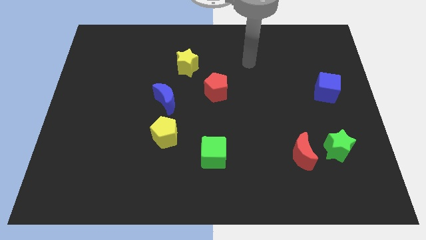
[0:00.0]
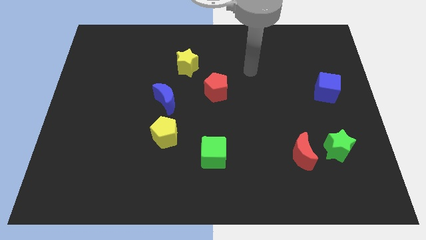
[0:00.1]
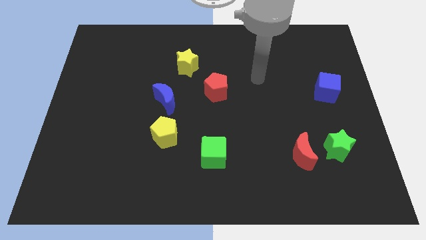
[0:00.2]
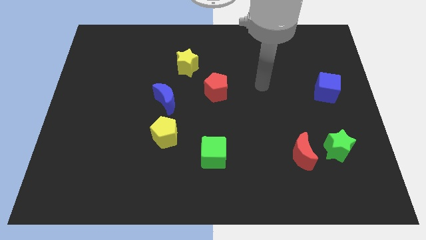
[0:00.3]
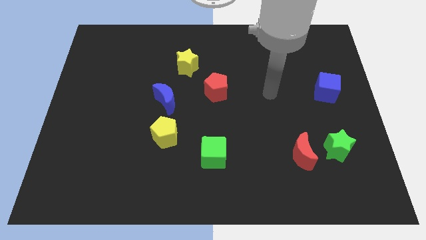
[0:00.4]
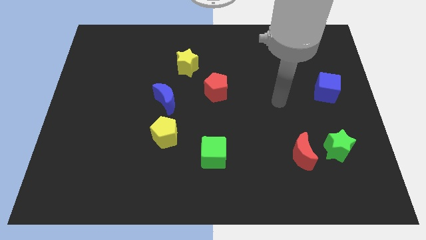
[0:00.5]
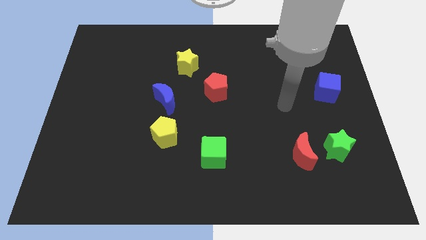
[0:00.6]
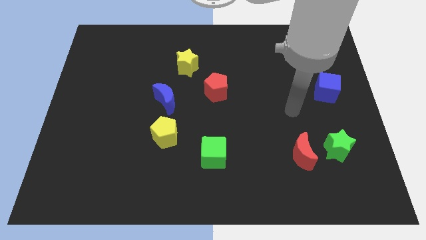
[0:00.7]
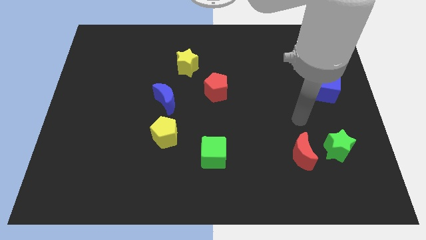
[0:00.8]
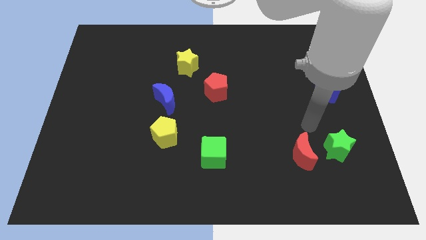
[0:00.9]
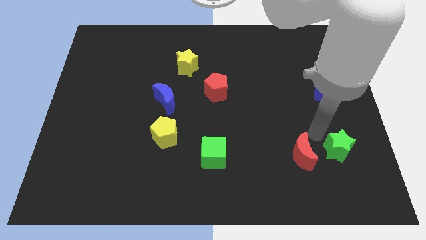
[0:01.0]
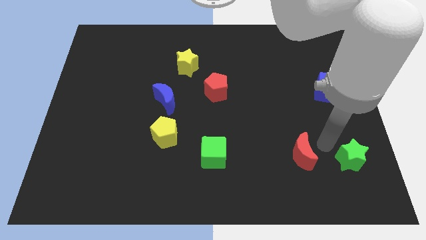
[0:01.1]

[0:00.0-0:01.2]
pull the red moon apart from the green star

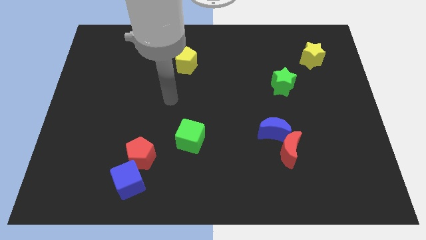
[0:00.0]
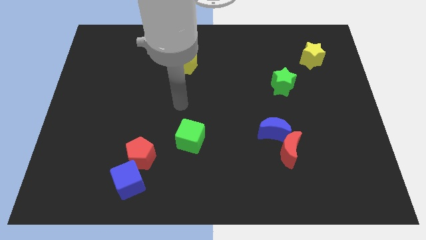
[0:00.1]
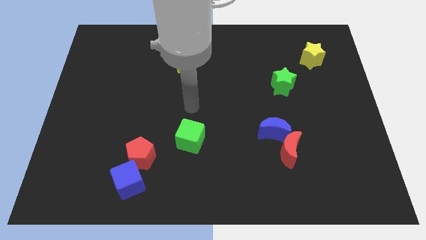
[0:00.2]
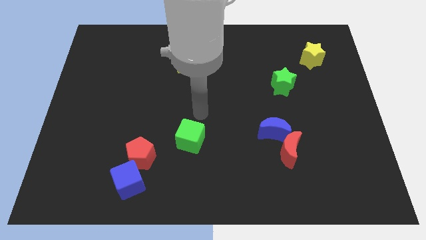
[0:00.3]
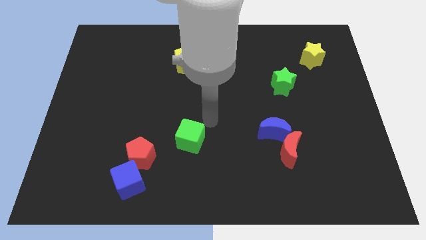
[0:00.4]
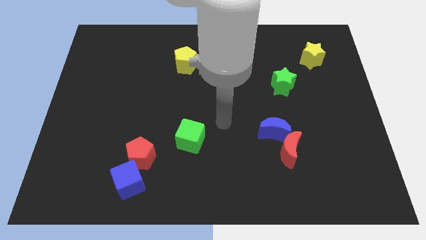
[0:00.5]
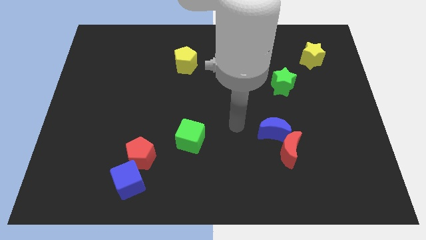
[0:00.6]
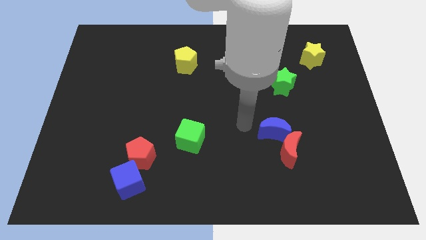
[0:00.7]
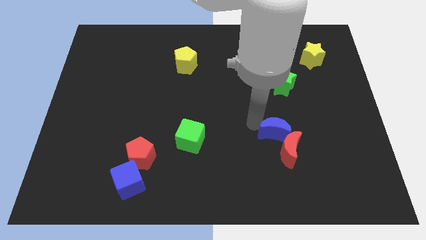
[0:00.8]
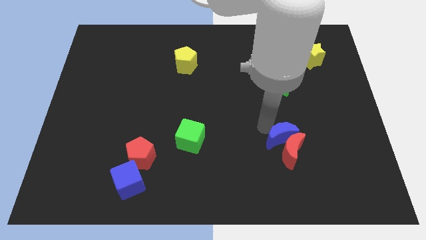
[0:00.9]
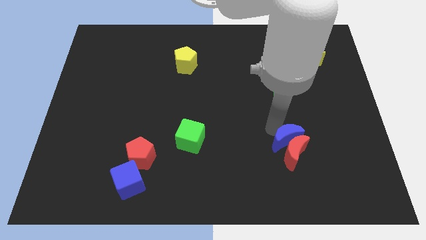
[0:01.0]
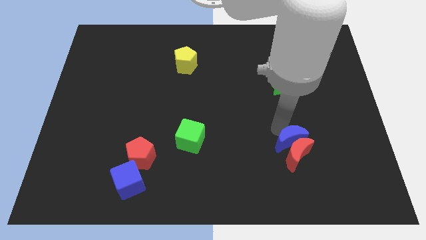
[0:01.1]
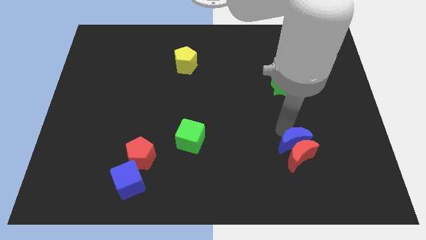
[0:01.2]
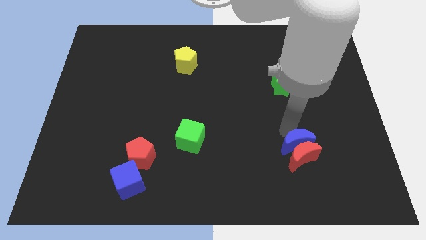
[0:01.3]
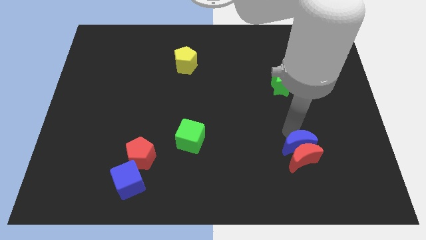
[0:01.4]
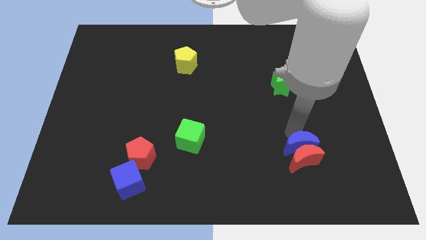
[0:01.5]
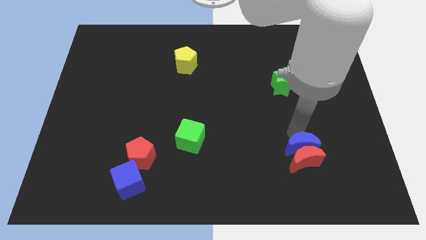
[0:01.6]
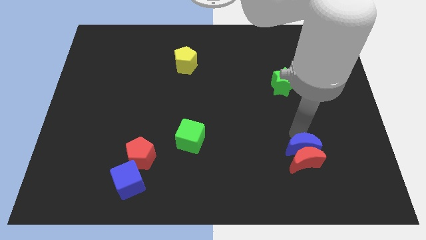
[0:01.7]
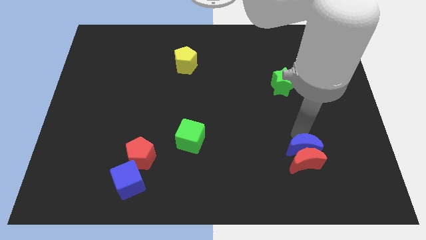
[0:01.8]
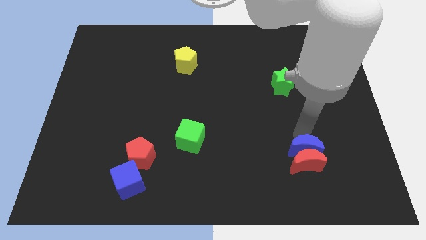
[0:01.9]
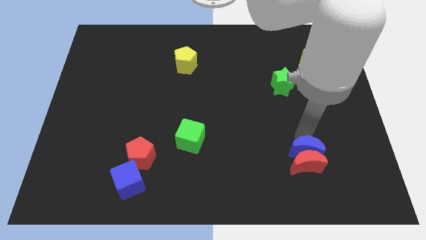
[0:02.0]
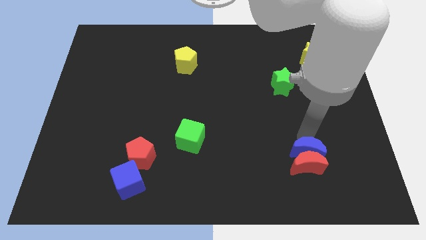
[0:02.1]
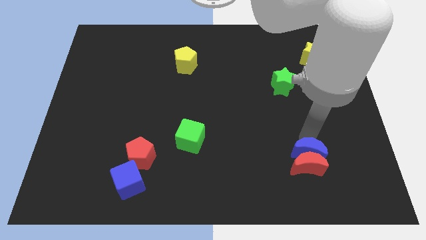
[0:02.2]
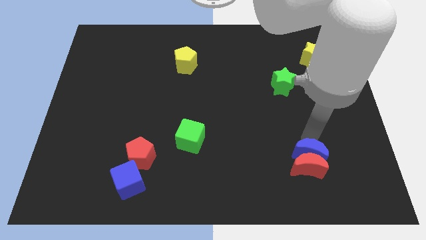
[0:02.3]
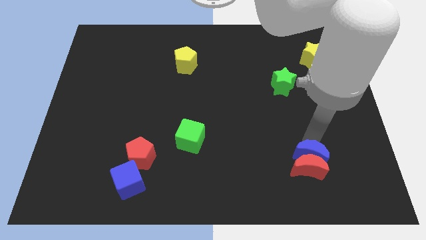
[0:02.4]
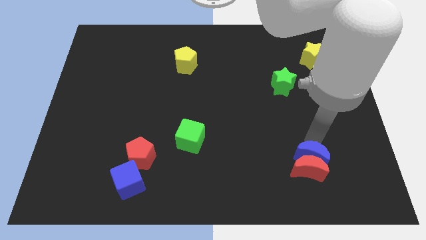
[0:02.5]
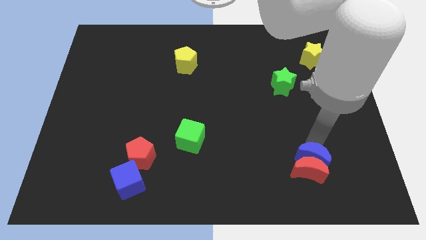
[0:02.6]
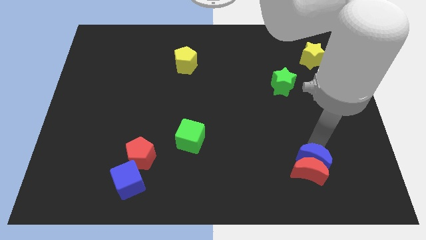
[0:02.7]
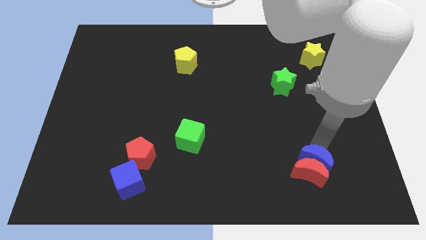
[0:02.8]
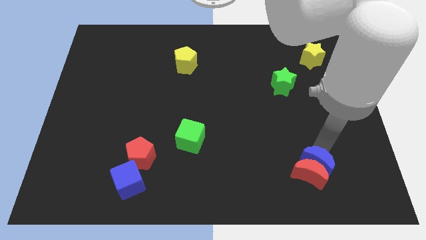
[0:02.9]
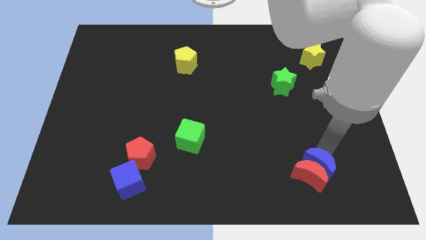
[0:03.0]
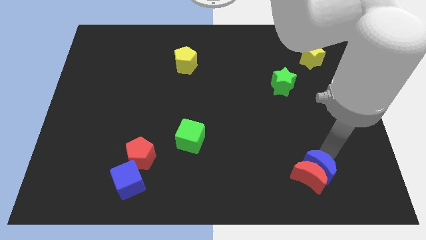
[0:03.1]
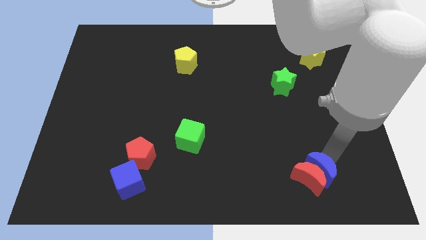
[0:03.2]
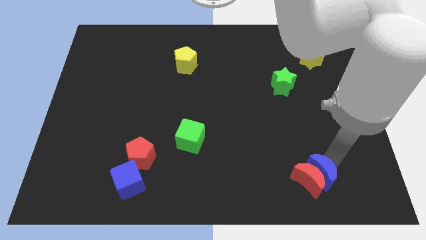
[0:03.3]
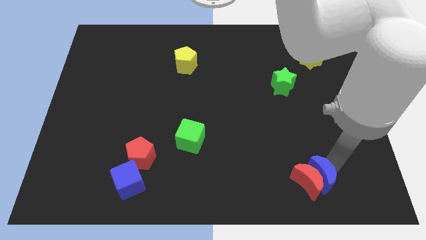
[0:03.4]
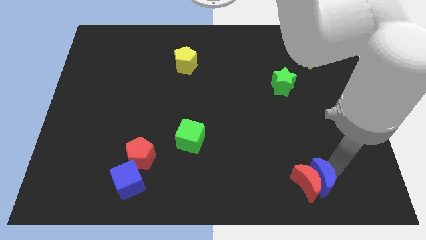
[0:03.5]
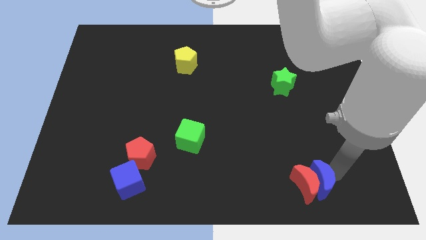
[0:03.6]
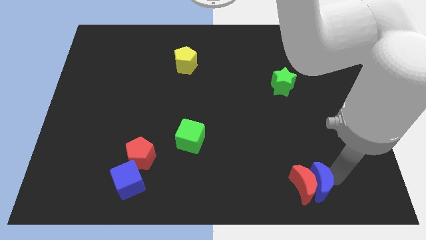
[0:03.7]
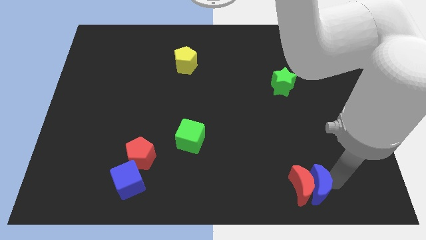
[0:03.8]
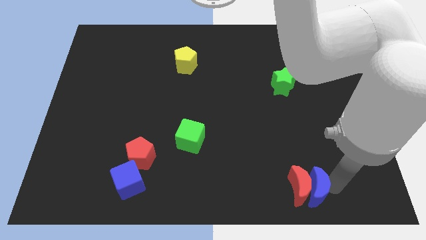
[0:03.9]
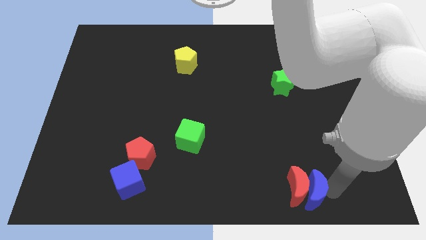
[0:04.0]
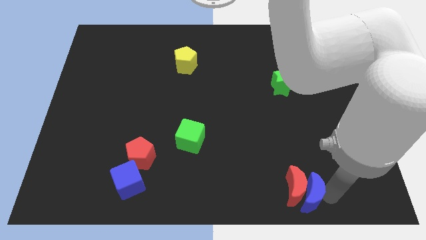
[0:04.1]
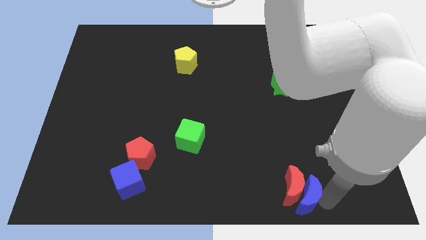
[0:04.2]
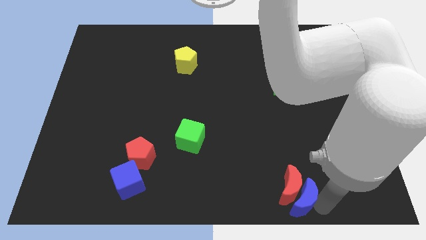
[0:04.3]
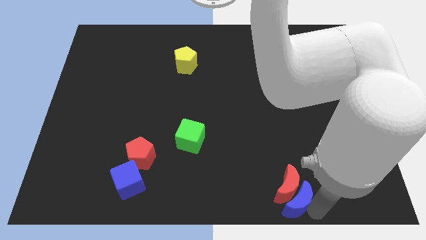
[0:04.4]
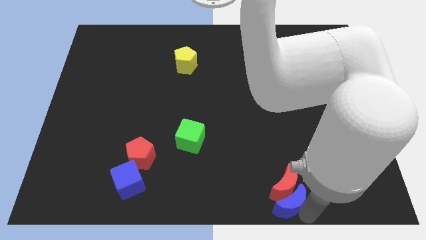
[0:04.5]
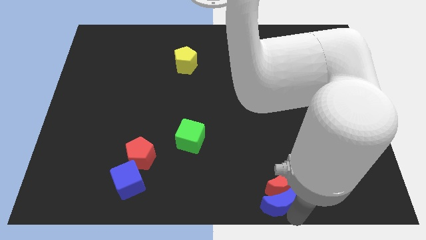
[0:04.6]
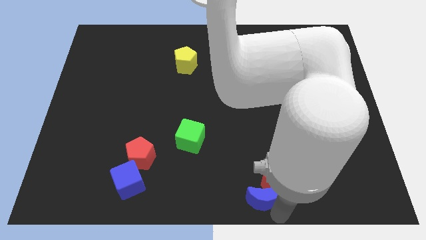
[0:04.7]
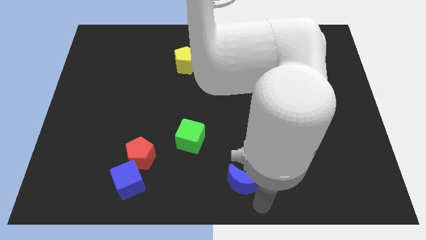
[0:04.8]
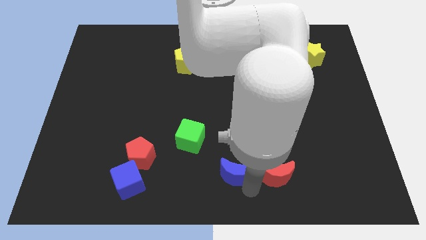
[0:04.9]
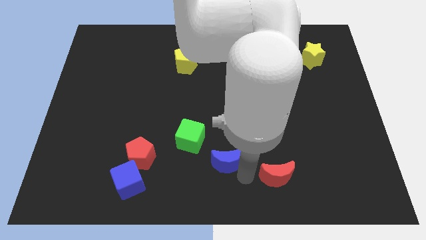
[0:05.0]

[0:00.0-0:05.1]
separate the red moon from the blue moon

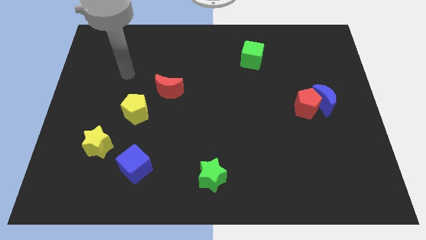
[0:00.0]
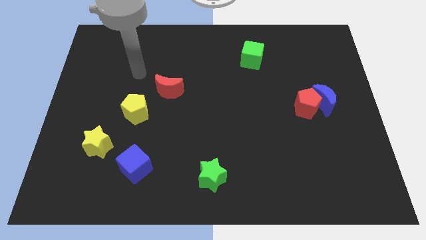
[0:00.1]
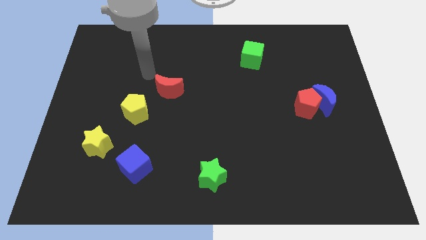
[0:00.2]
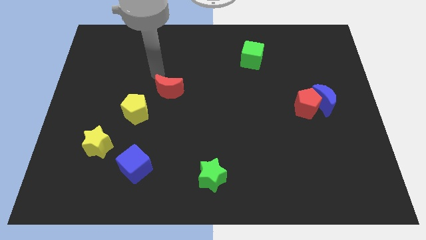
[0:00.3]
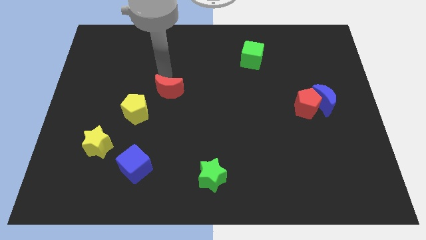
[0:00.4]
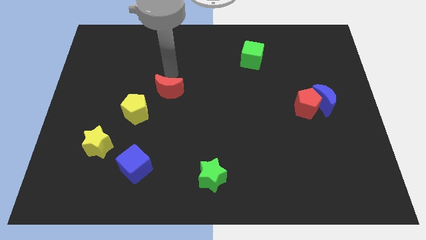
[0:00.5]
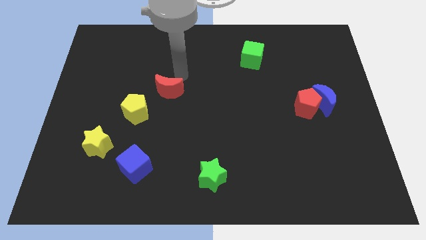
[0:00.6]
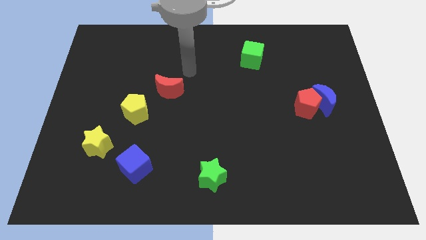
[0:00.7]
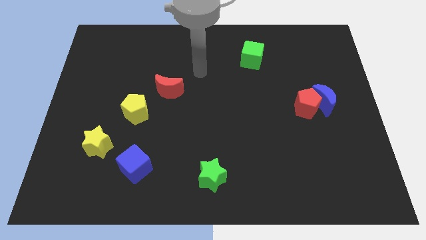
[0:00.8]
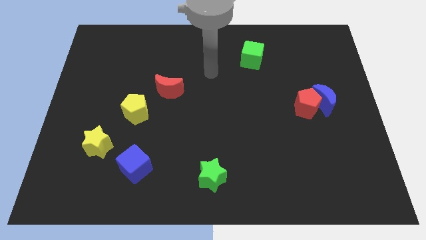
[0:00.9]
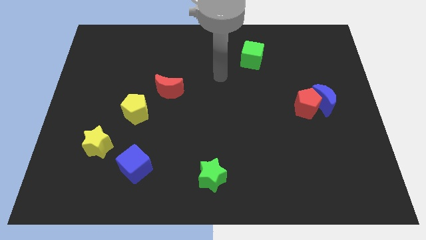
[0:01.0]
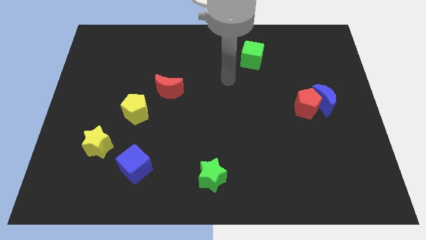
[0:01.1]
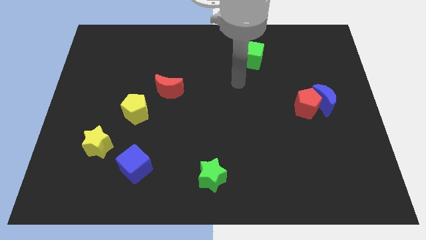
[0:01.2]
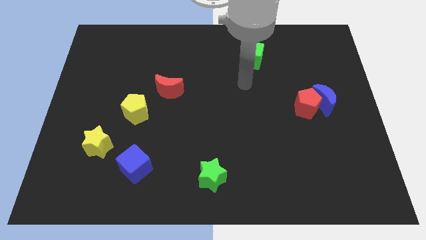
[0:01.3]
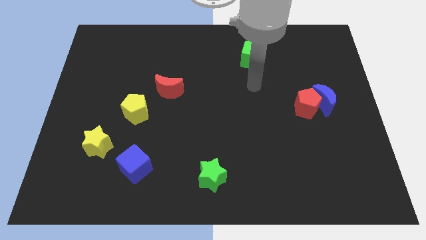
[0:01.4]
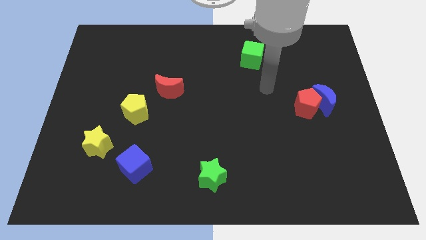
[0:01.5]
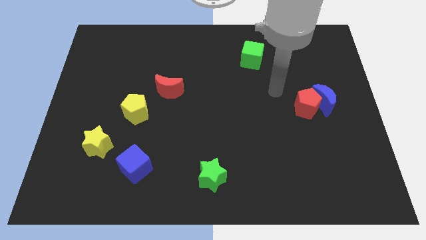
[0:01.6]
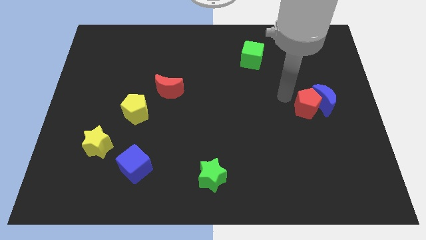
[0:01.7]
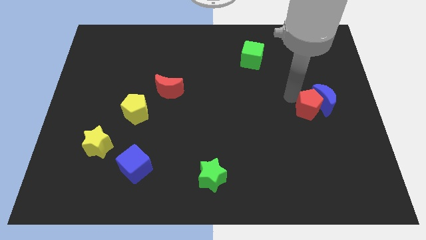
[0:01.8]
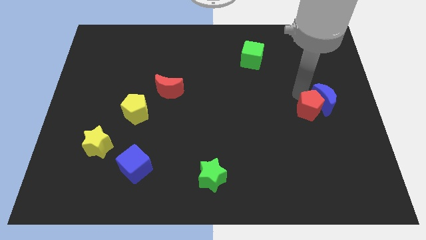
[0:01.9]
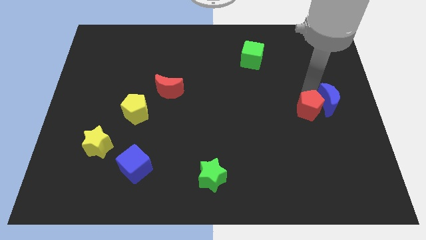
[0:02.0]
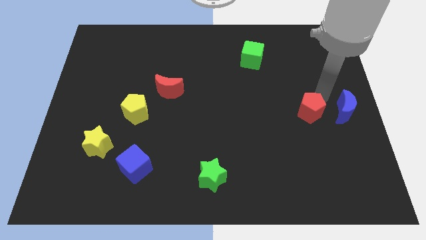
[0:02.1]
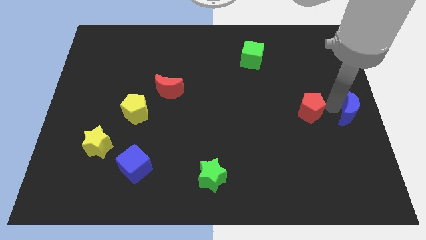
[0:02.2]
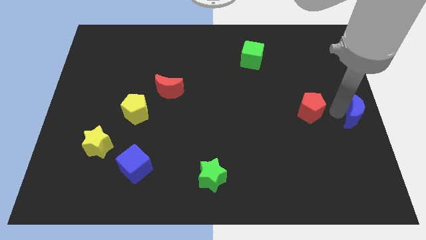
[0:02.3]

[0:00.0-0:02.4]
separate the red pentagon from the blue moon

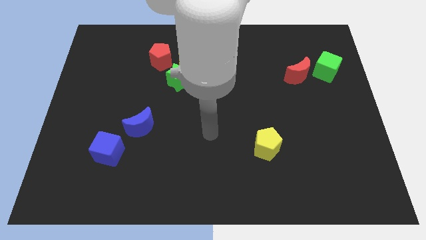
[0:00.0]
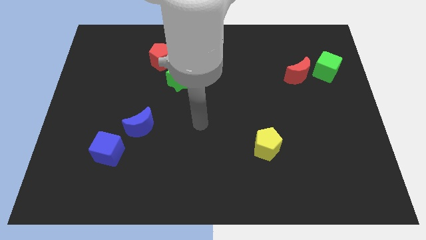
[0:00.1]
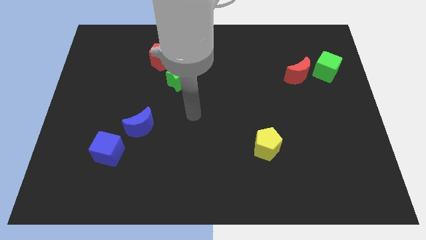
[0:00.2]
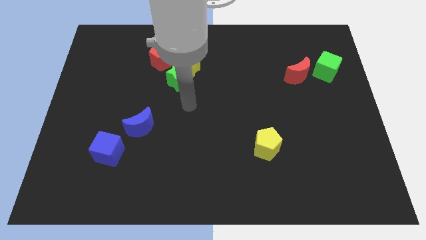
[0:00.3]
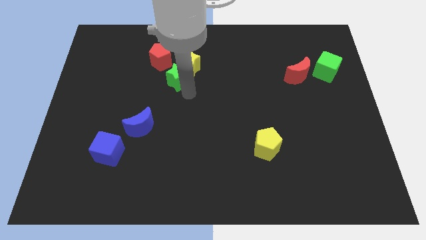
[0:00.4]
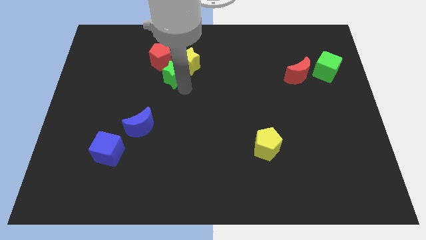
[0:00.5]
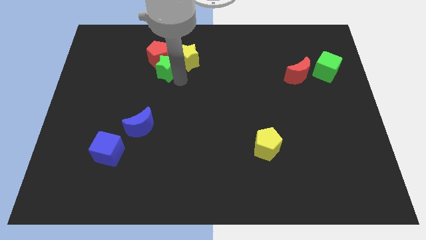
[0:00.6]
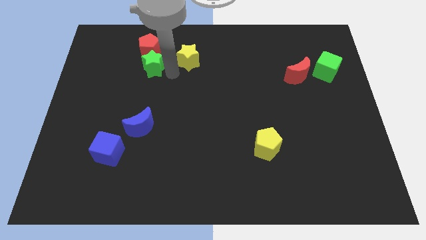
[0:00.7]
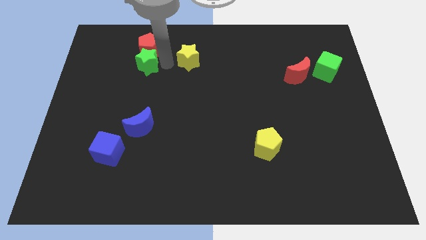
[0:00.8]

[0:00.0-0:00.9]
separate the yellow star from the green star and red pentagon

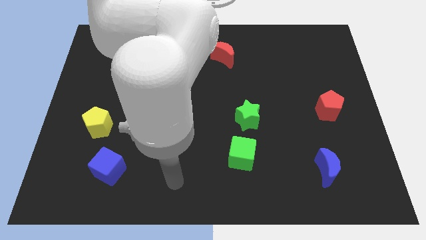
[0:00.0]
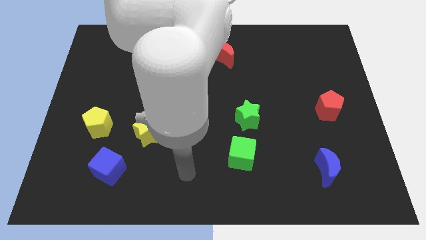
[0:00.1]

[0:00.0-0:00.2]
pull the green cube apart from the green star
